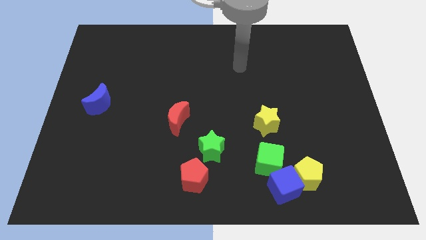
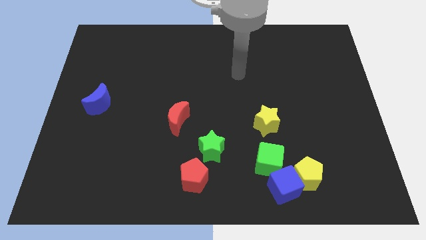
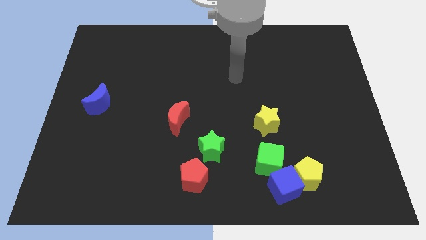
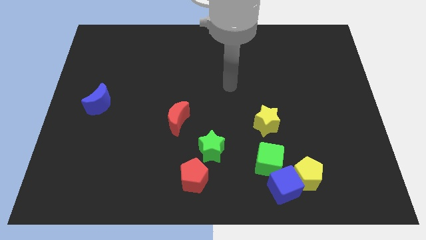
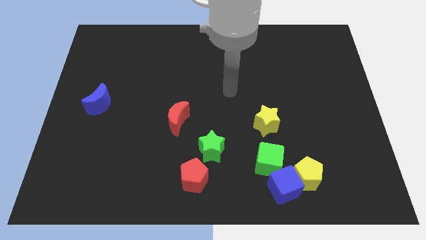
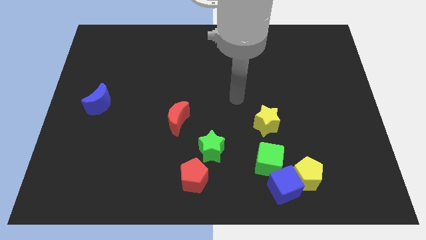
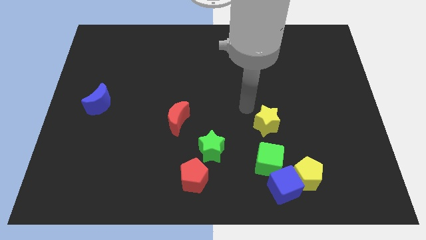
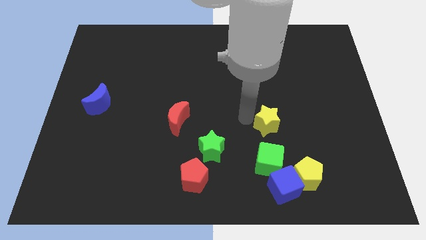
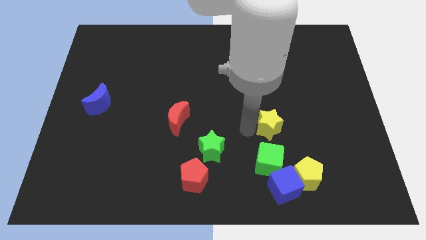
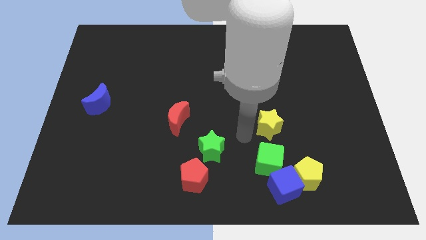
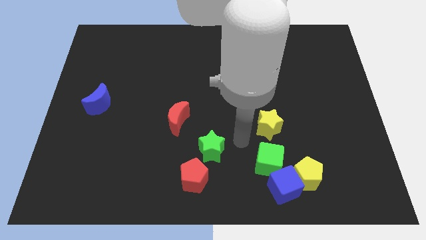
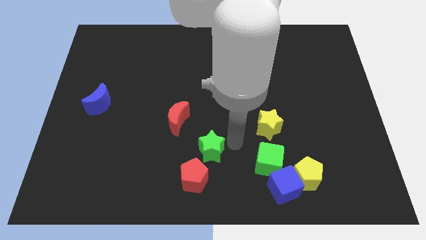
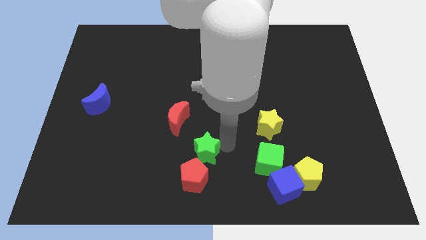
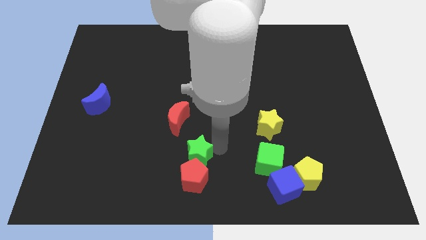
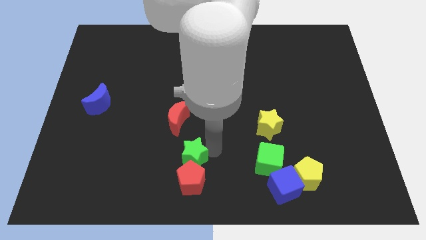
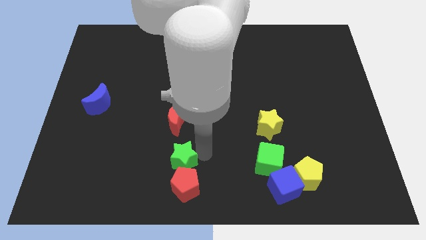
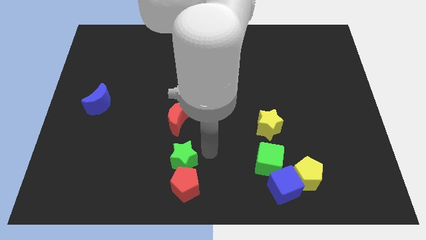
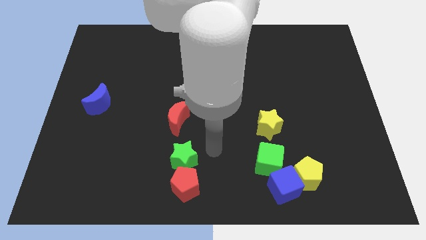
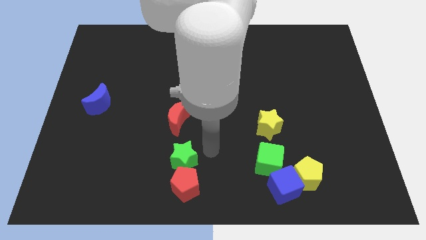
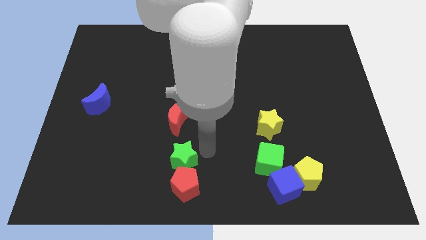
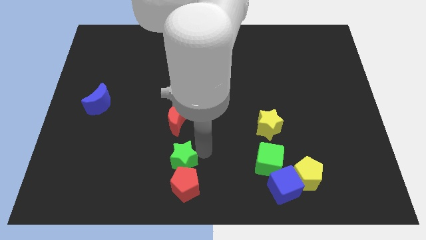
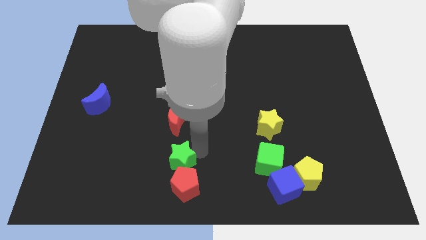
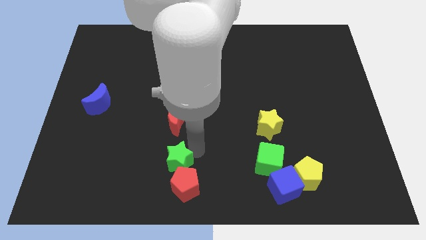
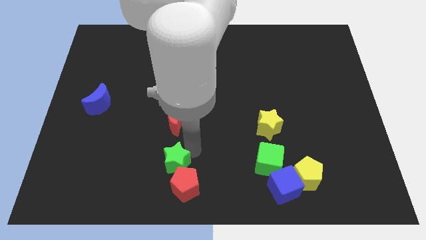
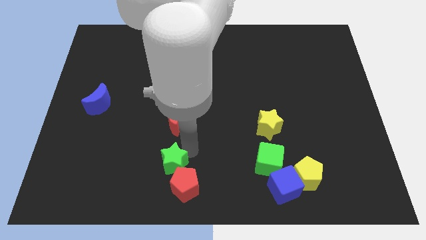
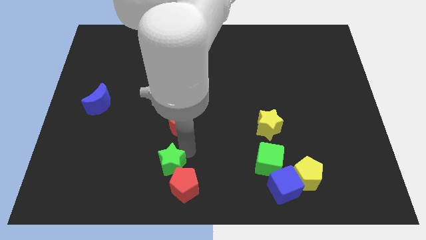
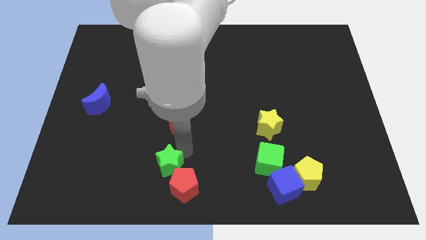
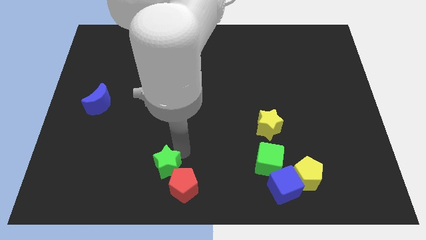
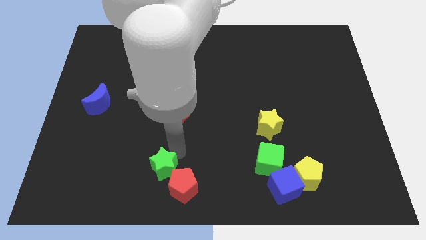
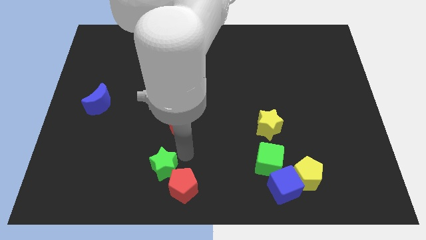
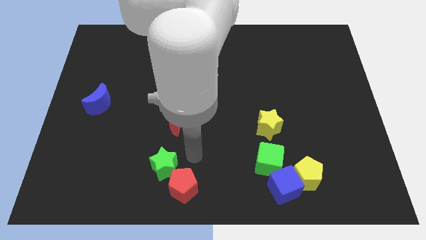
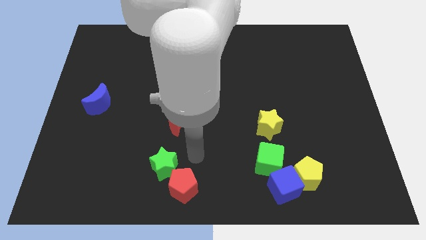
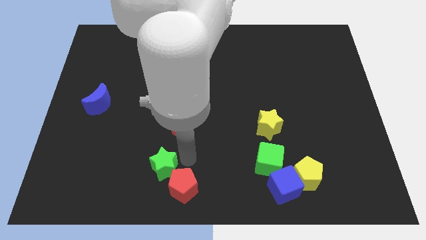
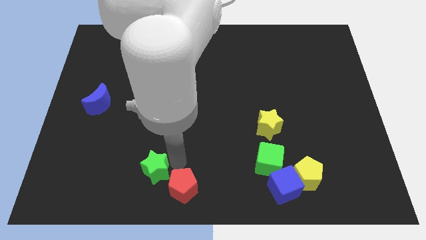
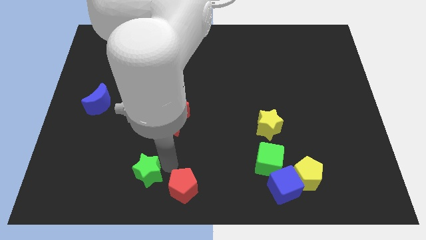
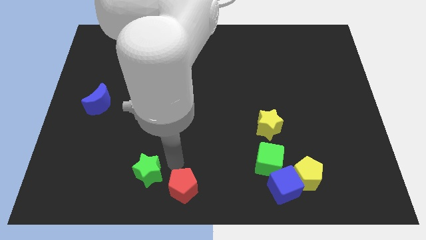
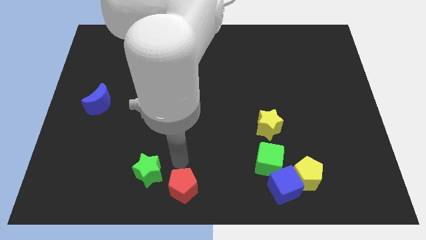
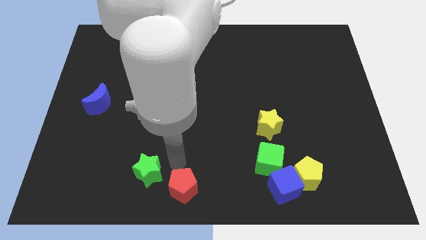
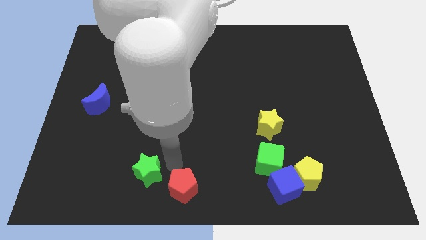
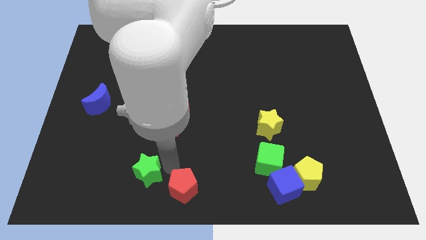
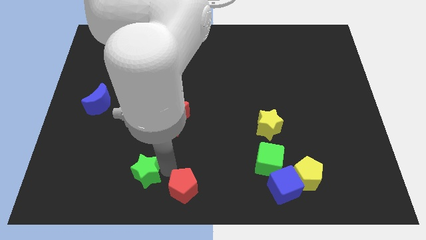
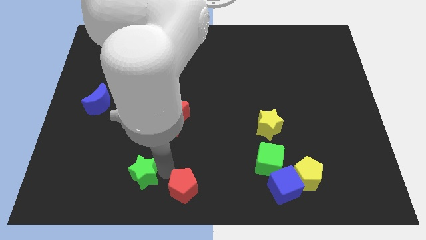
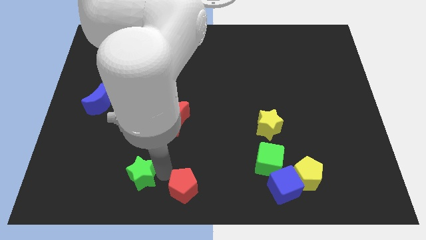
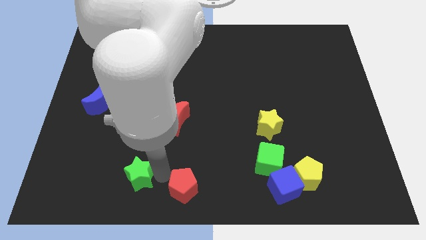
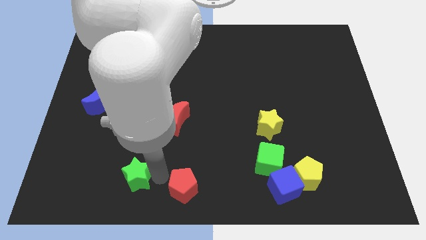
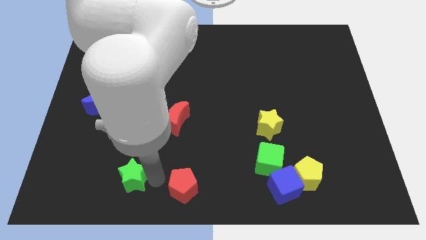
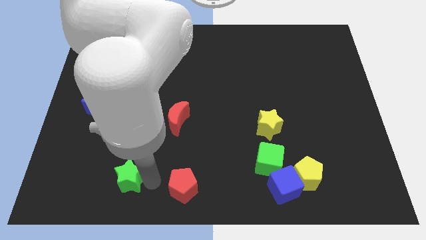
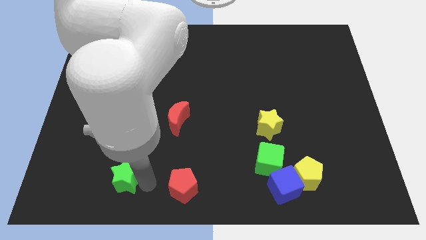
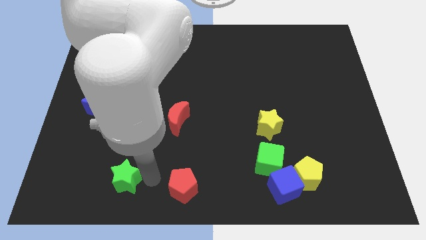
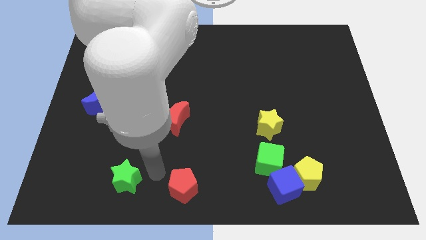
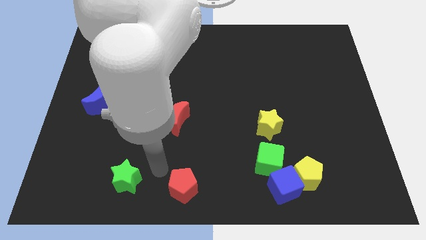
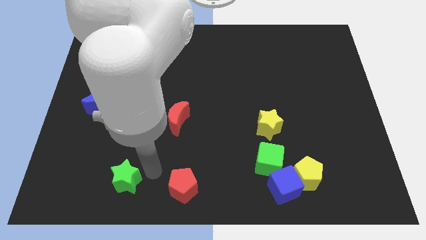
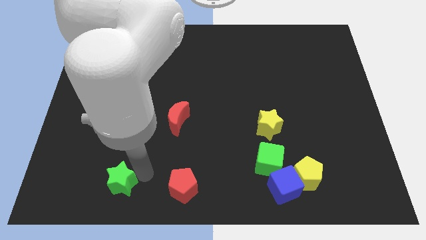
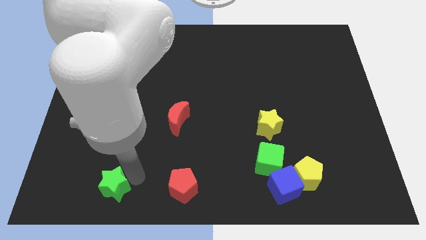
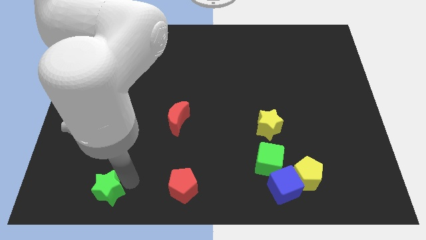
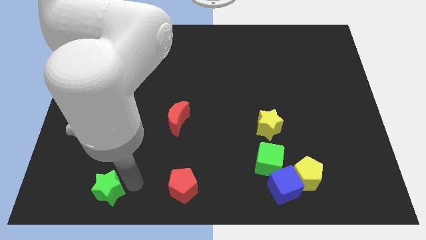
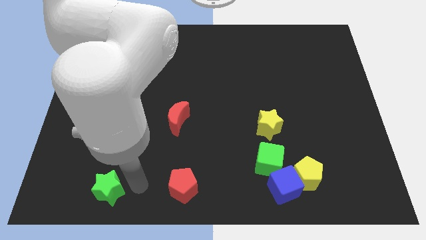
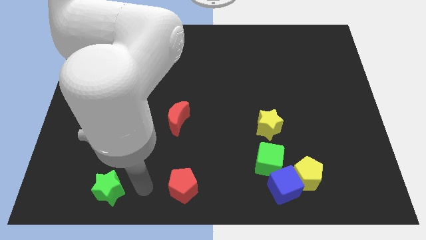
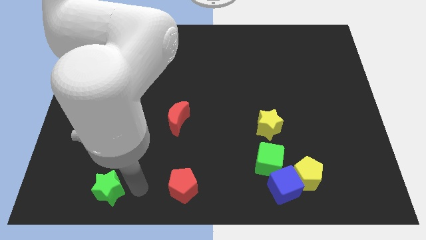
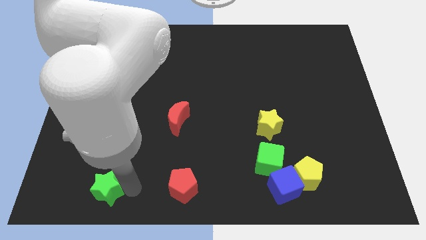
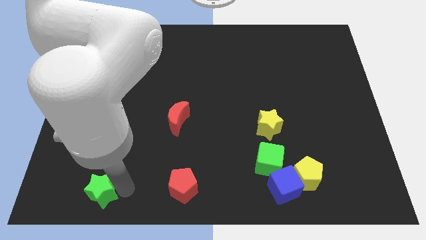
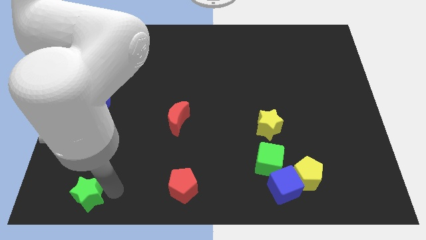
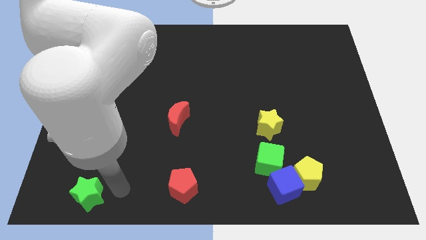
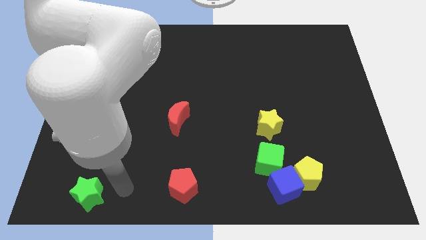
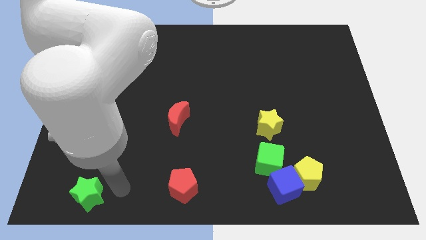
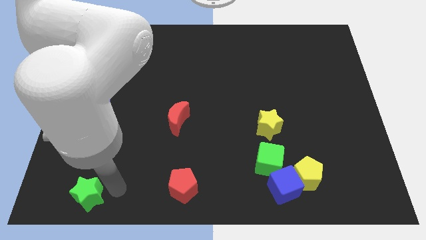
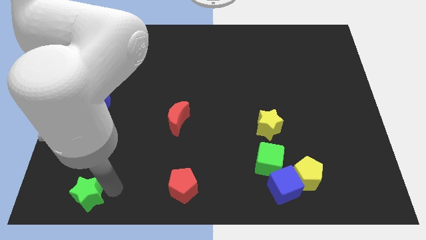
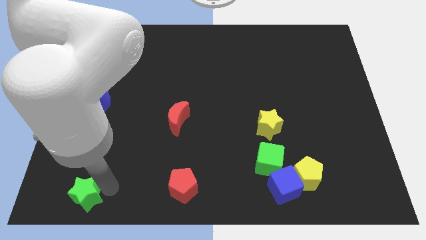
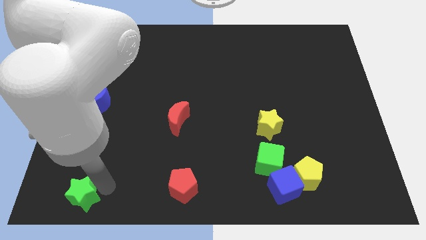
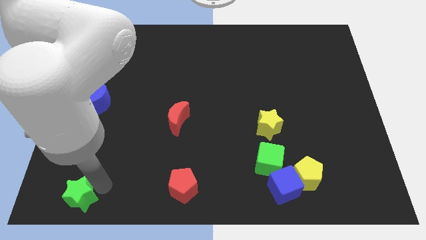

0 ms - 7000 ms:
move the green star to the lower left corner
